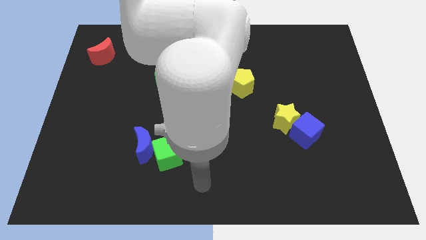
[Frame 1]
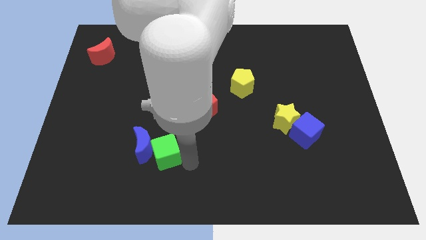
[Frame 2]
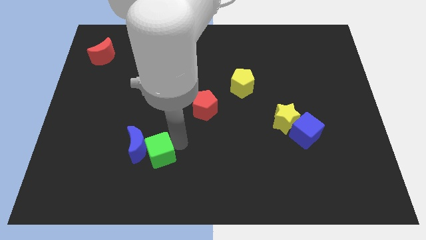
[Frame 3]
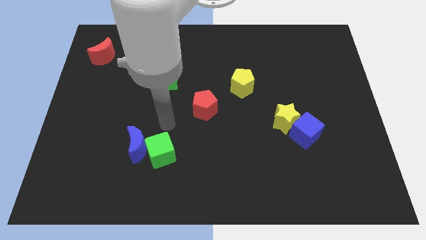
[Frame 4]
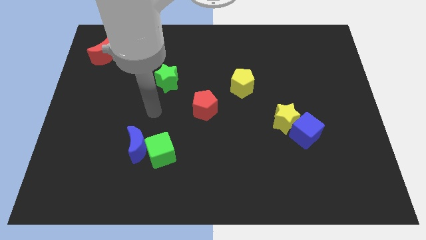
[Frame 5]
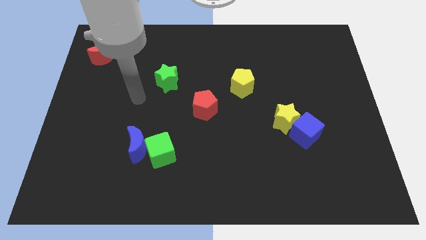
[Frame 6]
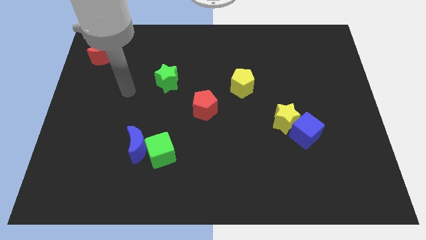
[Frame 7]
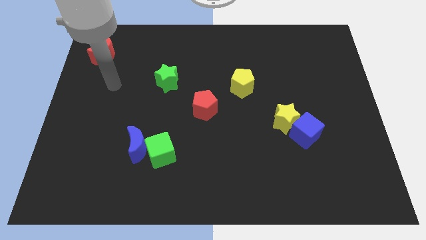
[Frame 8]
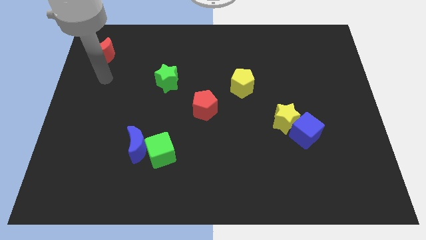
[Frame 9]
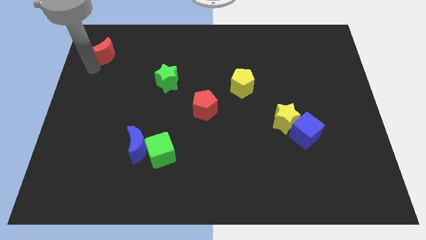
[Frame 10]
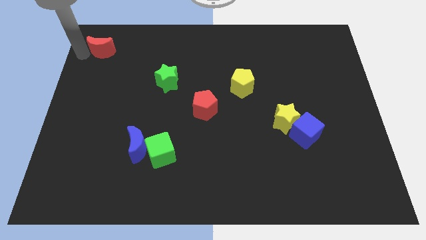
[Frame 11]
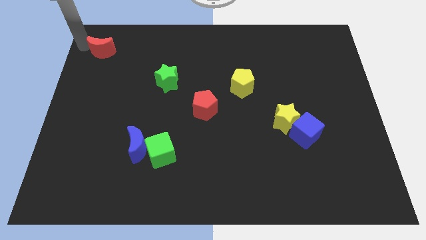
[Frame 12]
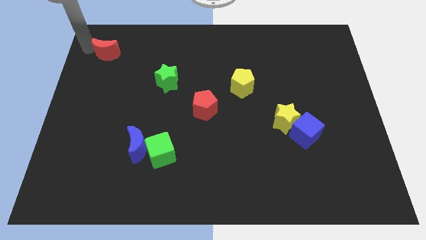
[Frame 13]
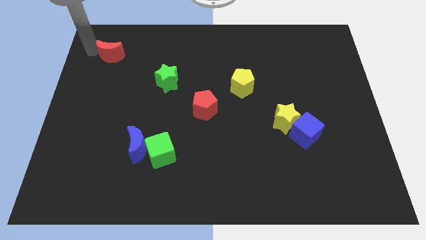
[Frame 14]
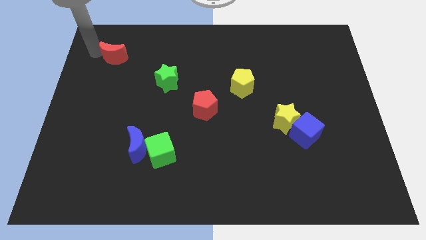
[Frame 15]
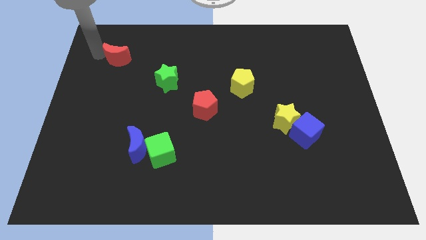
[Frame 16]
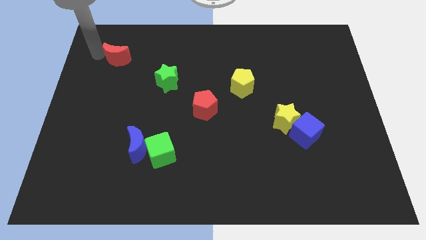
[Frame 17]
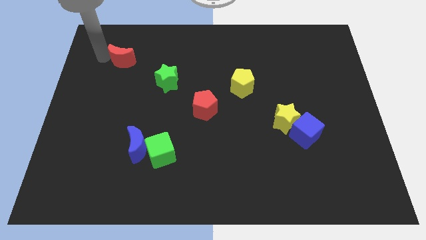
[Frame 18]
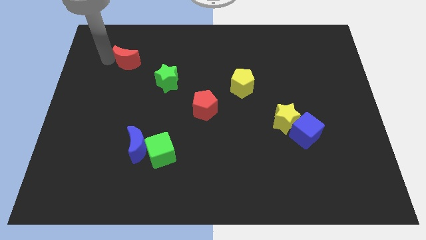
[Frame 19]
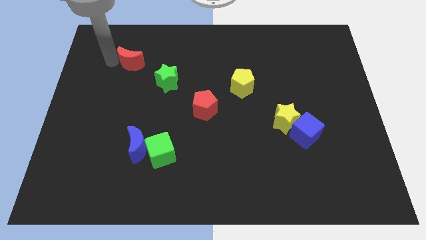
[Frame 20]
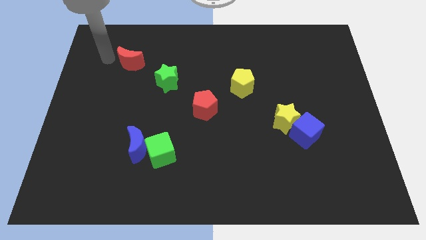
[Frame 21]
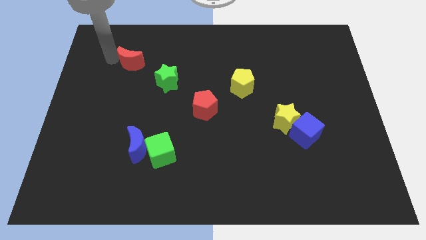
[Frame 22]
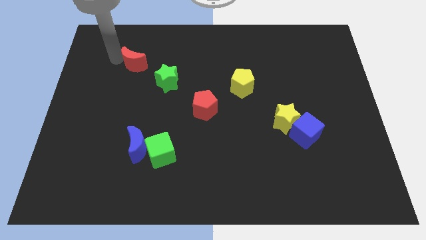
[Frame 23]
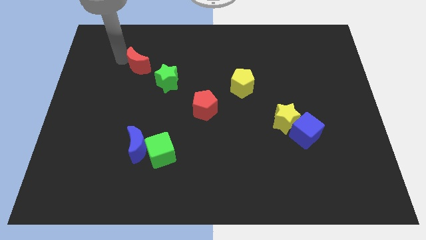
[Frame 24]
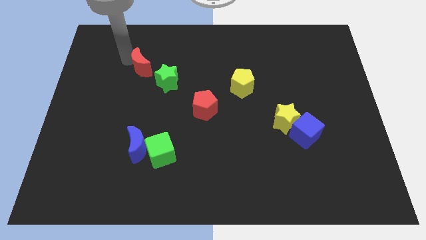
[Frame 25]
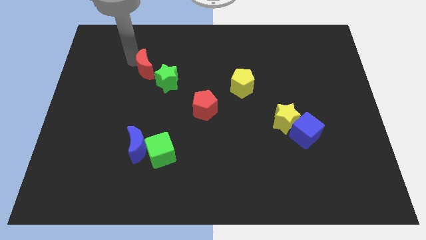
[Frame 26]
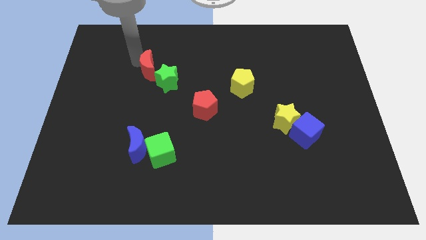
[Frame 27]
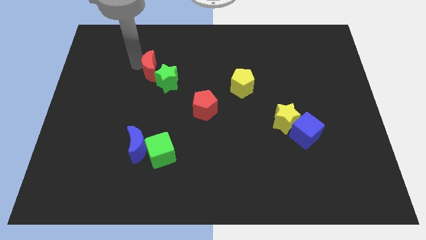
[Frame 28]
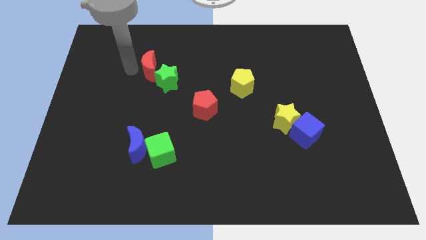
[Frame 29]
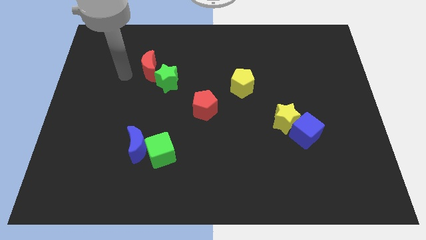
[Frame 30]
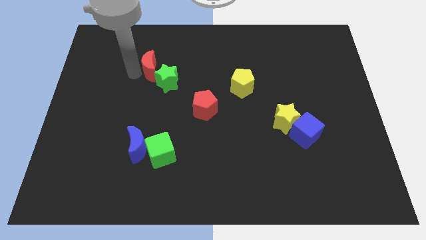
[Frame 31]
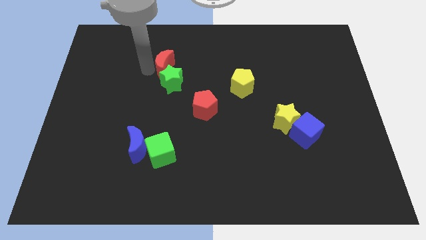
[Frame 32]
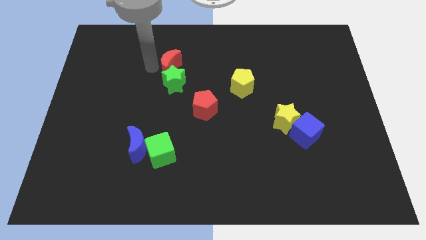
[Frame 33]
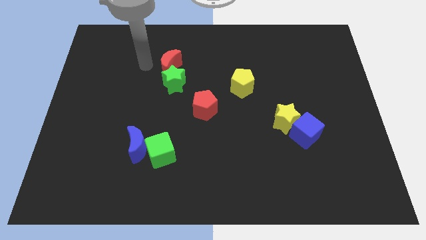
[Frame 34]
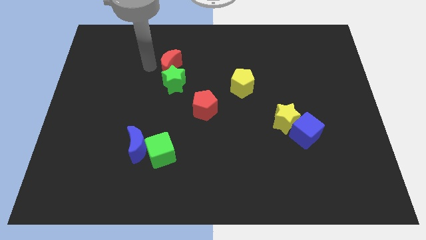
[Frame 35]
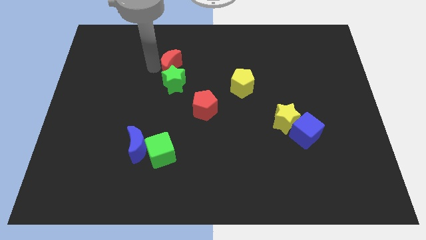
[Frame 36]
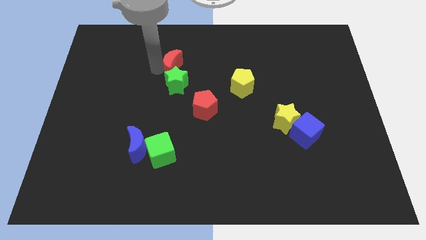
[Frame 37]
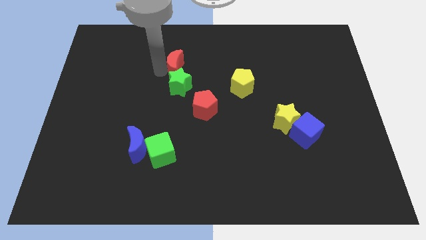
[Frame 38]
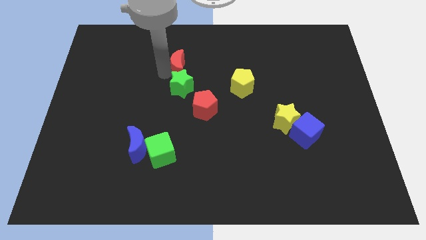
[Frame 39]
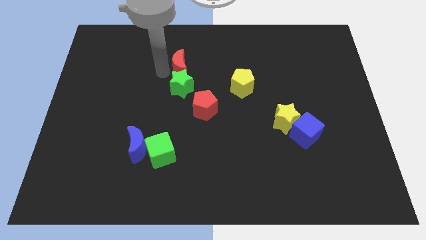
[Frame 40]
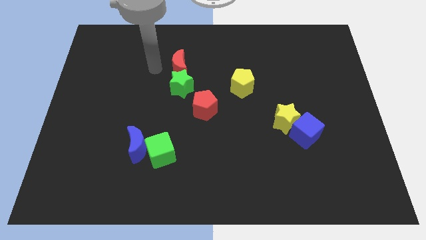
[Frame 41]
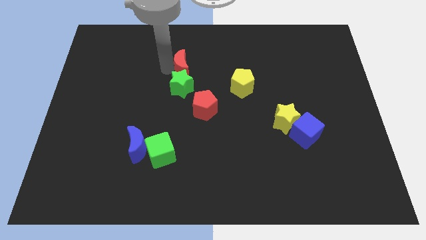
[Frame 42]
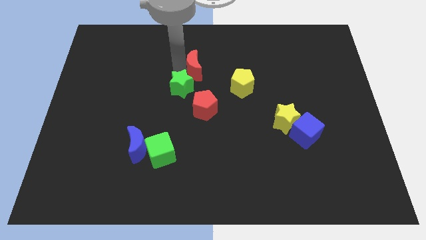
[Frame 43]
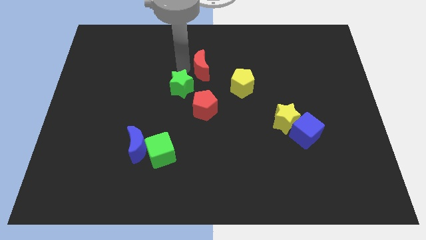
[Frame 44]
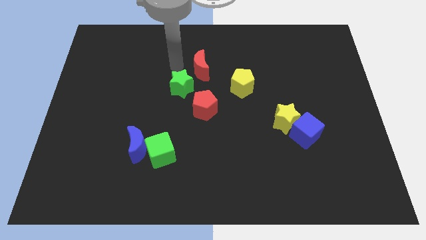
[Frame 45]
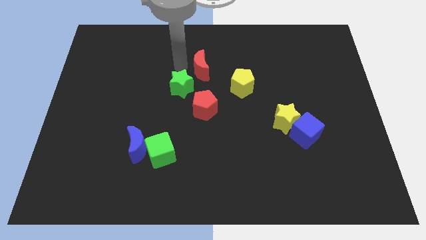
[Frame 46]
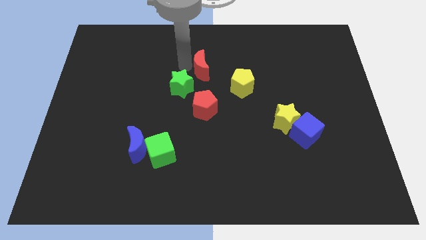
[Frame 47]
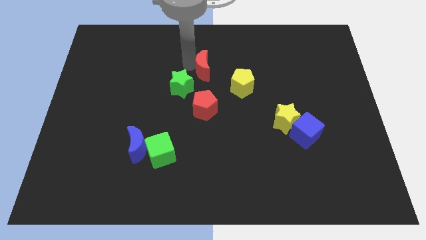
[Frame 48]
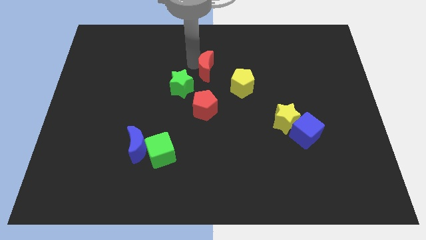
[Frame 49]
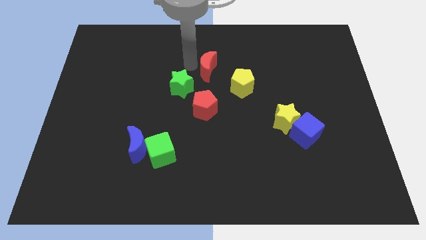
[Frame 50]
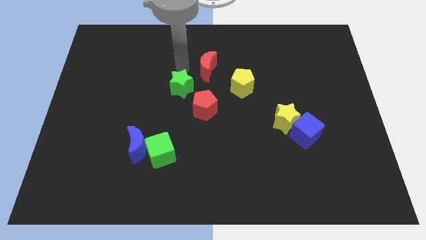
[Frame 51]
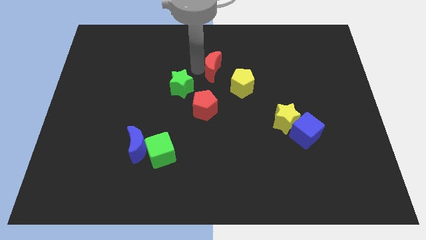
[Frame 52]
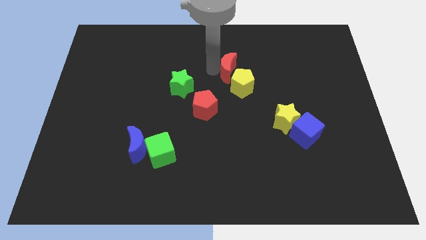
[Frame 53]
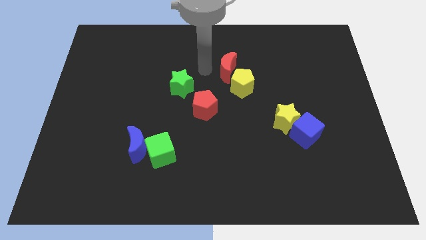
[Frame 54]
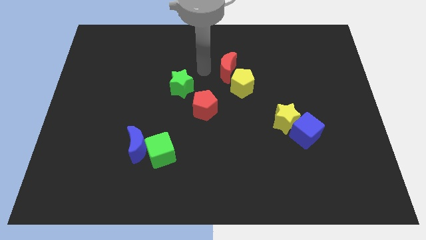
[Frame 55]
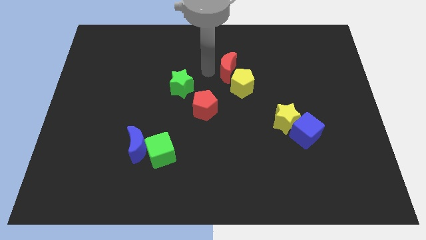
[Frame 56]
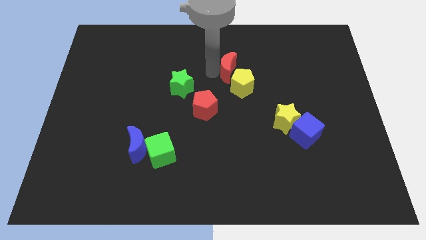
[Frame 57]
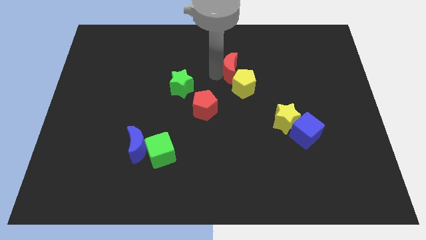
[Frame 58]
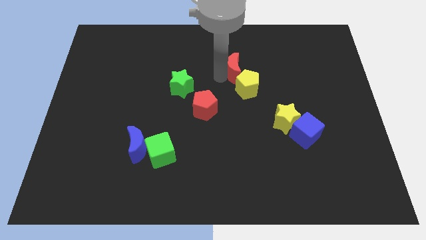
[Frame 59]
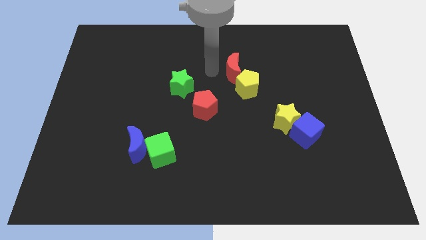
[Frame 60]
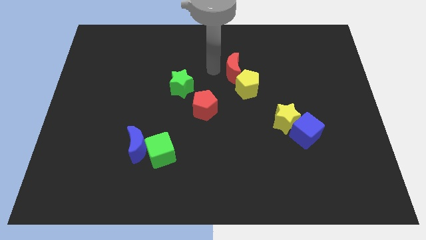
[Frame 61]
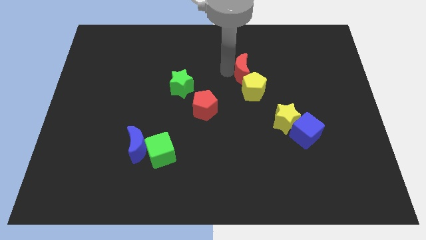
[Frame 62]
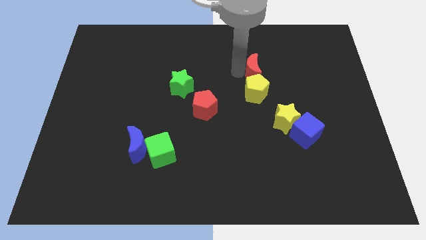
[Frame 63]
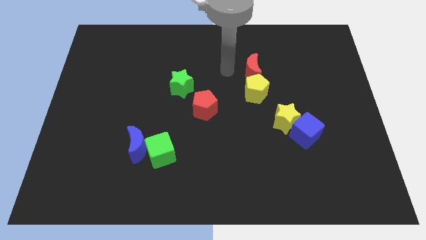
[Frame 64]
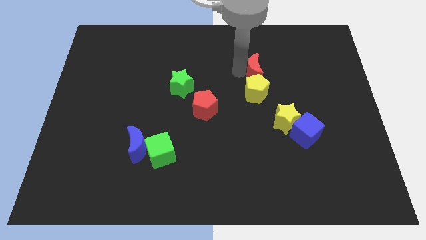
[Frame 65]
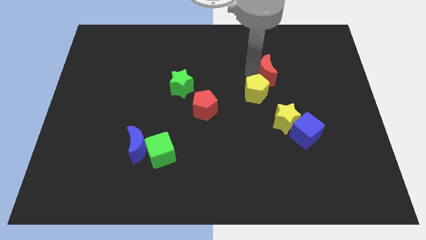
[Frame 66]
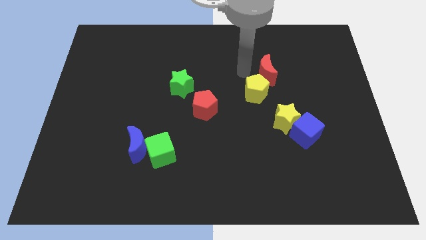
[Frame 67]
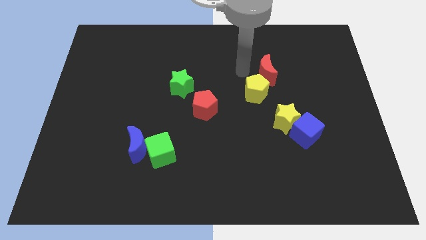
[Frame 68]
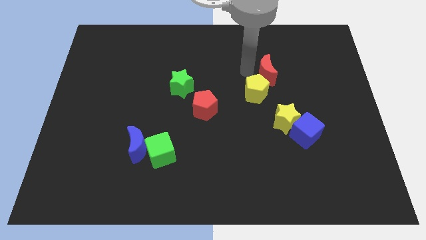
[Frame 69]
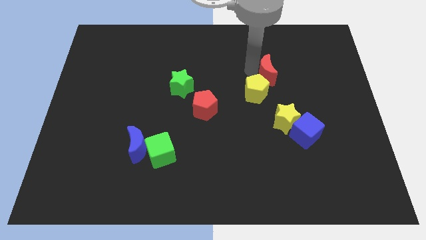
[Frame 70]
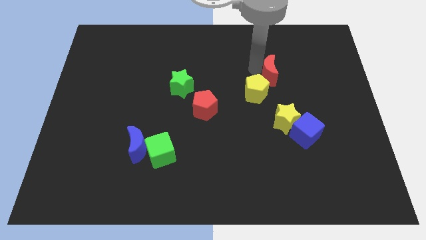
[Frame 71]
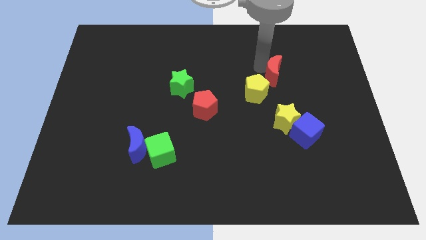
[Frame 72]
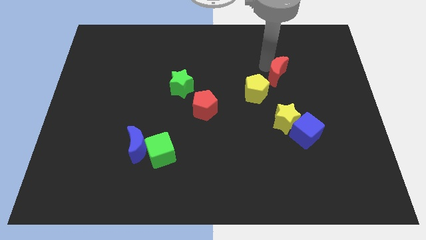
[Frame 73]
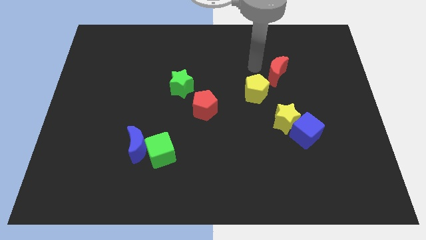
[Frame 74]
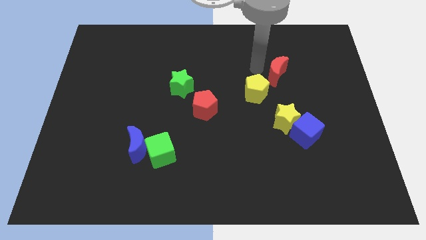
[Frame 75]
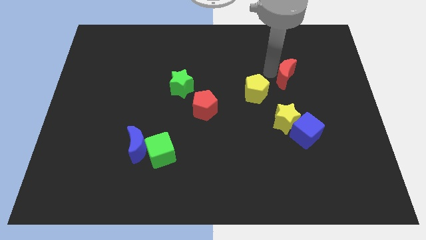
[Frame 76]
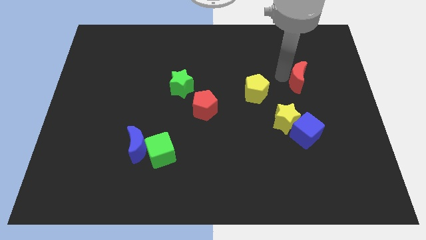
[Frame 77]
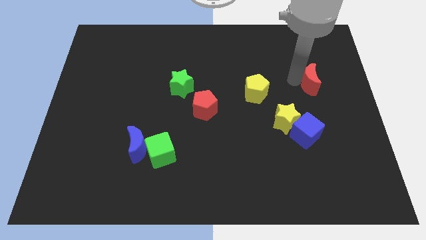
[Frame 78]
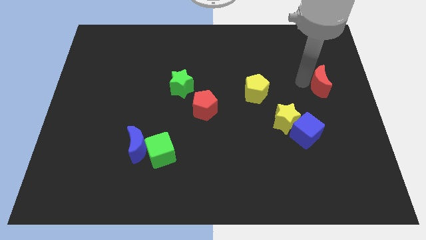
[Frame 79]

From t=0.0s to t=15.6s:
put the red moon to the center right
